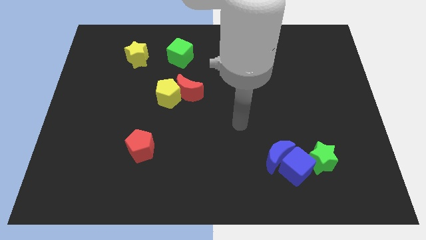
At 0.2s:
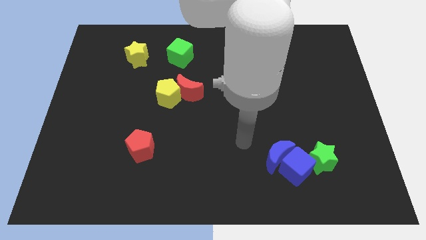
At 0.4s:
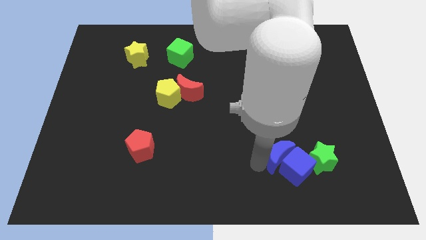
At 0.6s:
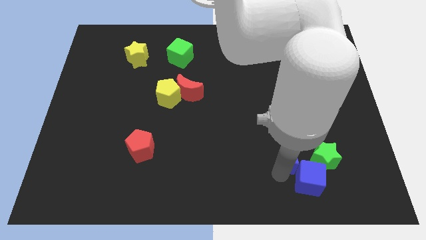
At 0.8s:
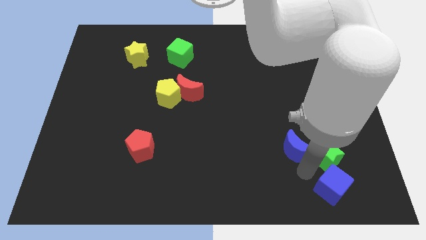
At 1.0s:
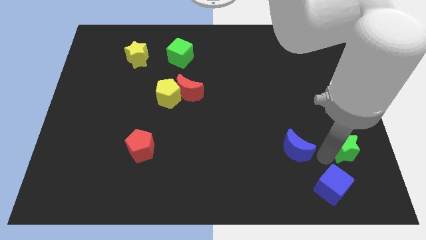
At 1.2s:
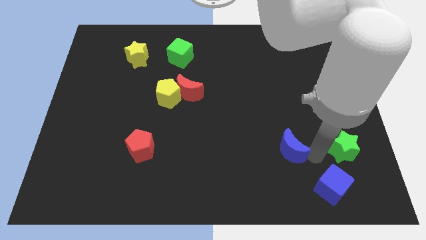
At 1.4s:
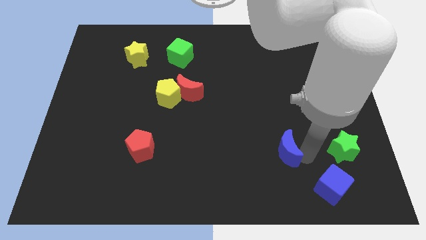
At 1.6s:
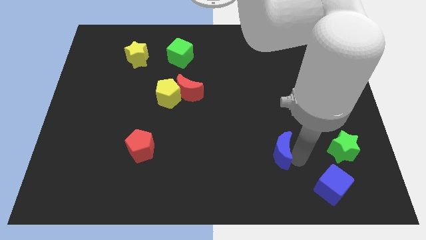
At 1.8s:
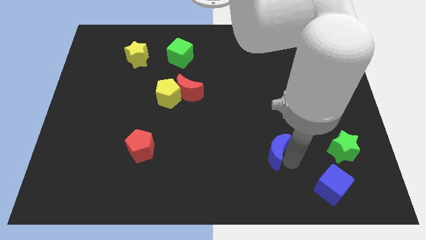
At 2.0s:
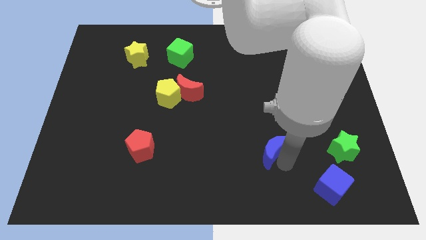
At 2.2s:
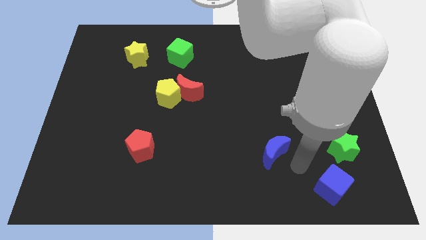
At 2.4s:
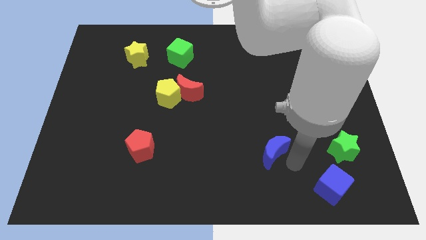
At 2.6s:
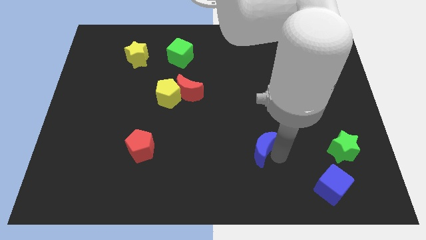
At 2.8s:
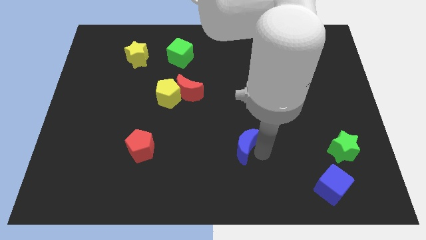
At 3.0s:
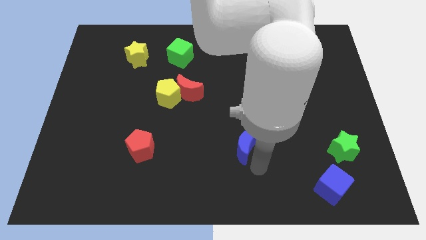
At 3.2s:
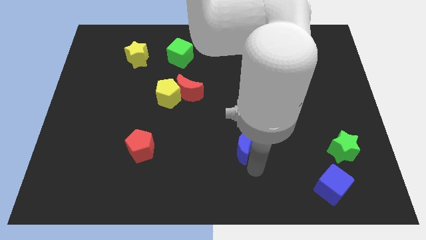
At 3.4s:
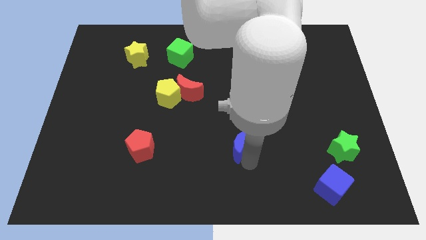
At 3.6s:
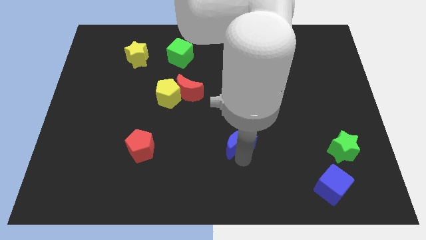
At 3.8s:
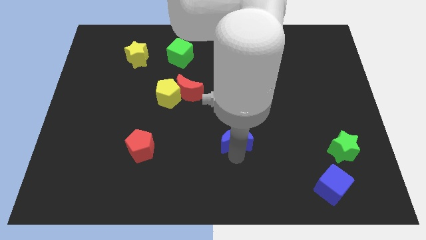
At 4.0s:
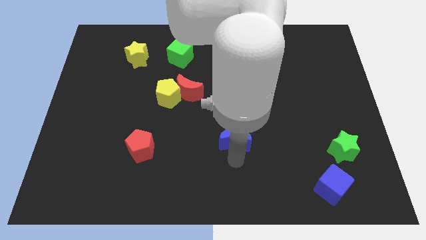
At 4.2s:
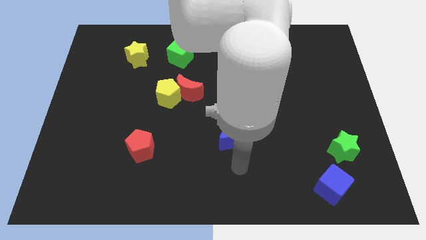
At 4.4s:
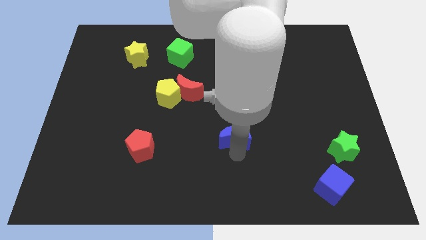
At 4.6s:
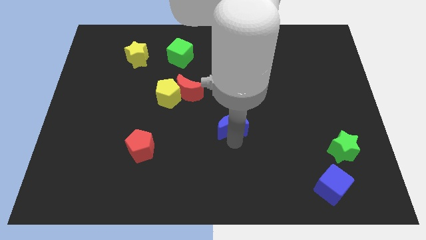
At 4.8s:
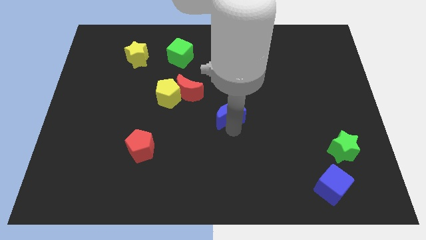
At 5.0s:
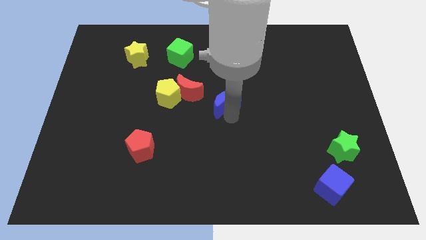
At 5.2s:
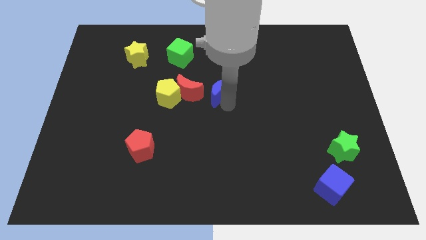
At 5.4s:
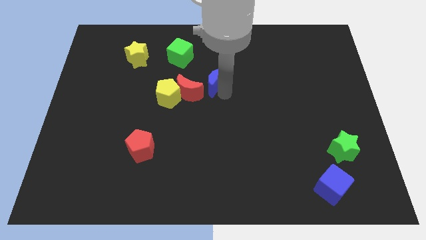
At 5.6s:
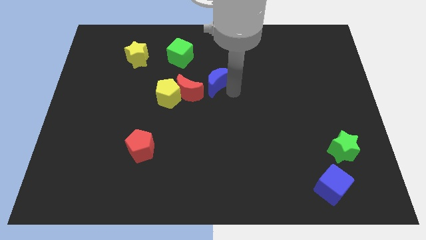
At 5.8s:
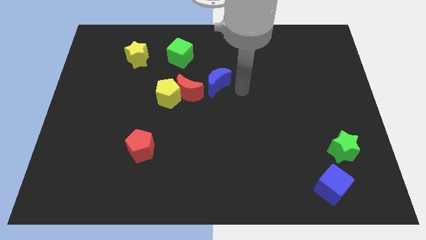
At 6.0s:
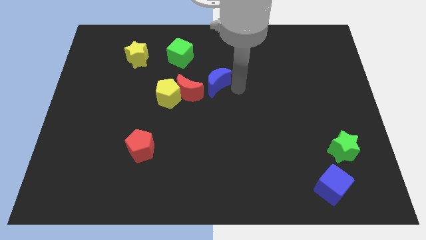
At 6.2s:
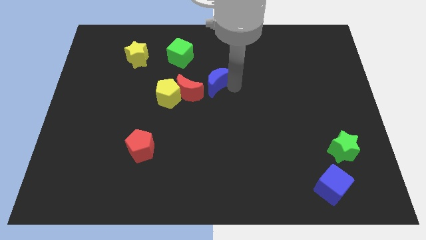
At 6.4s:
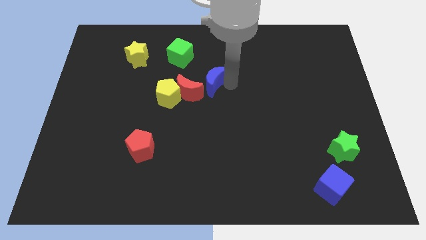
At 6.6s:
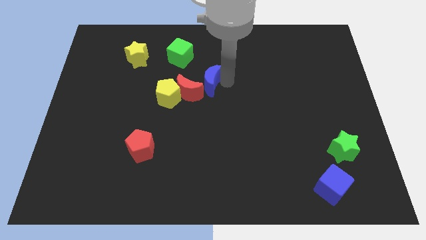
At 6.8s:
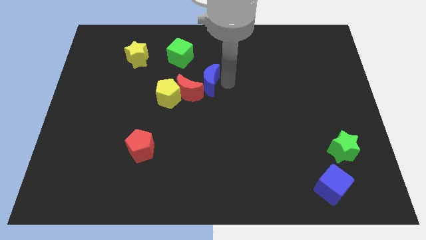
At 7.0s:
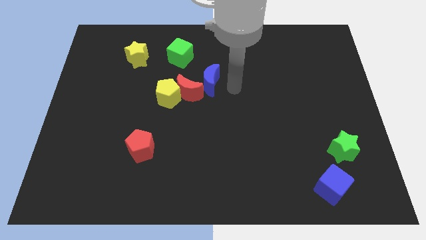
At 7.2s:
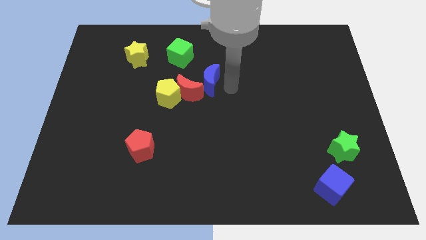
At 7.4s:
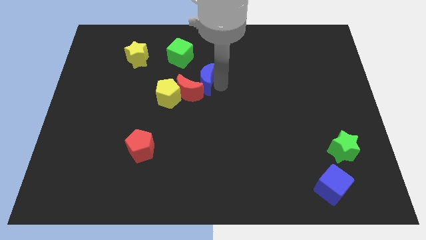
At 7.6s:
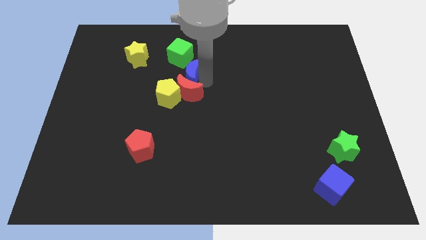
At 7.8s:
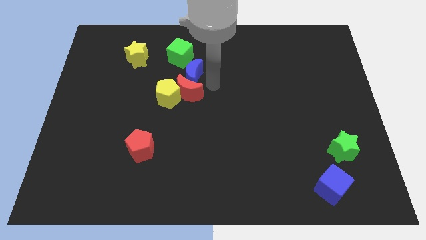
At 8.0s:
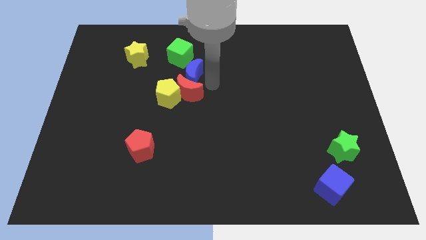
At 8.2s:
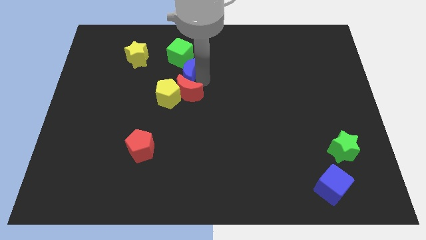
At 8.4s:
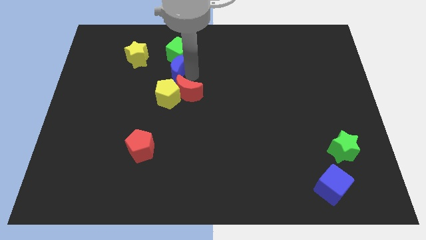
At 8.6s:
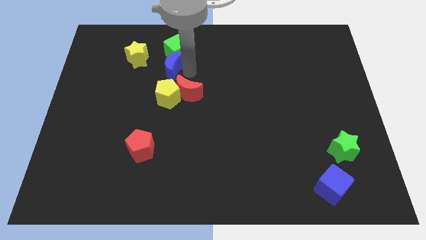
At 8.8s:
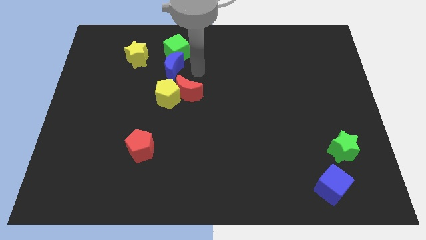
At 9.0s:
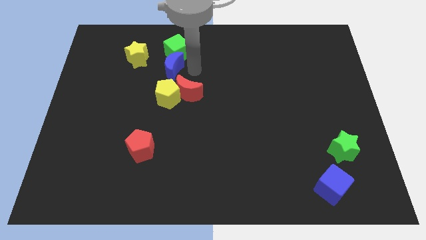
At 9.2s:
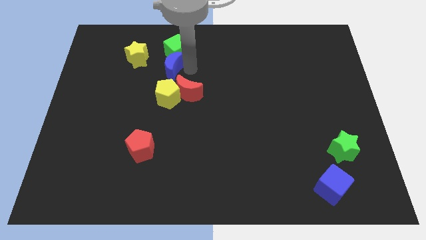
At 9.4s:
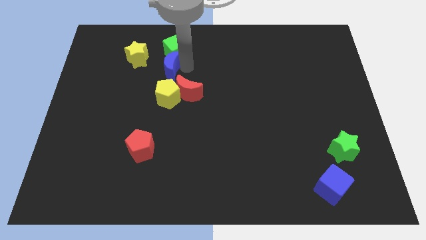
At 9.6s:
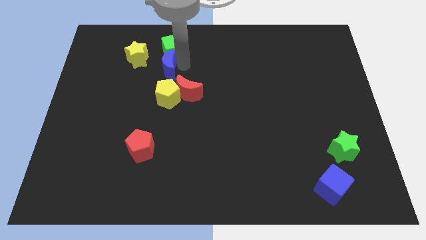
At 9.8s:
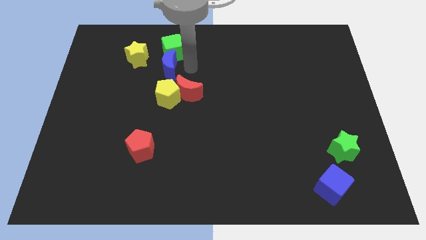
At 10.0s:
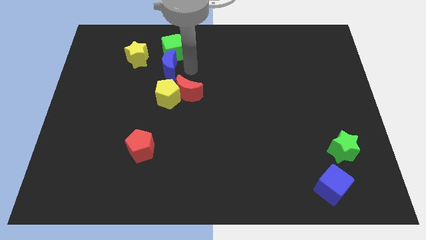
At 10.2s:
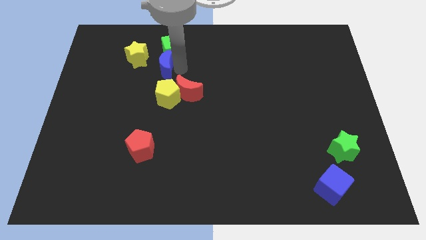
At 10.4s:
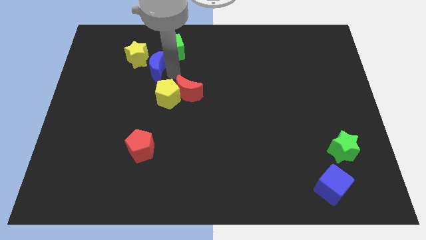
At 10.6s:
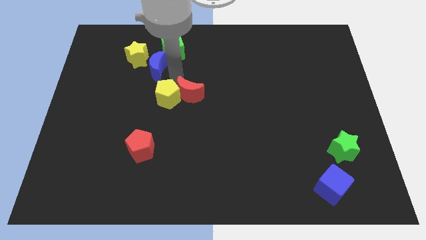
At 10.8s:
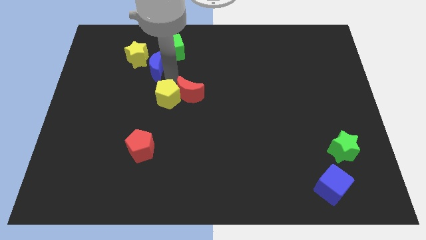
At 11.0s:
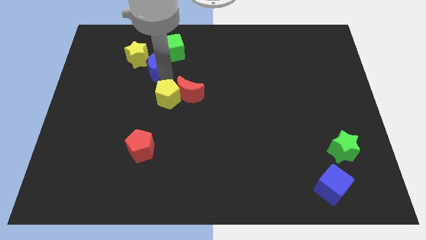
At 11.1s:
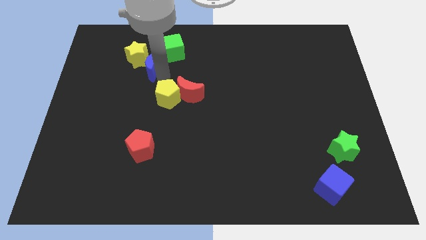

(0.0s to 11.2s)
push the blue moon to the yellow star

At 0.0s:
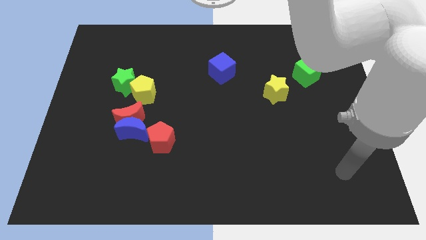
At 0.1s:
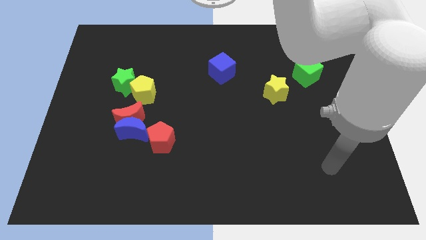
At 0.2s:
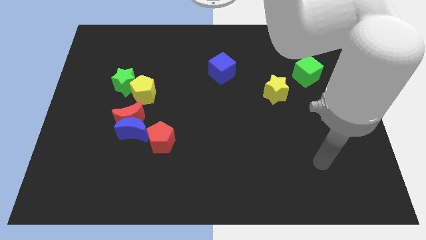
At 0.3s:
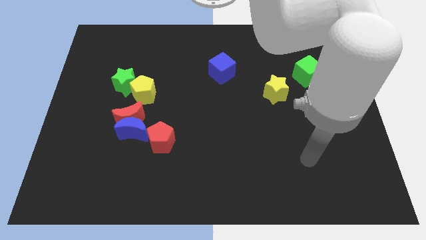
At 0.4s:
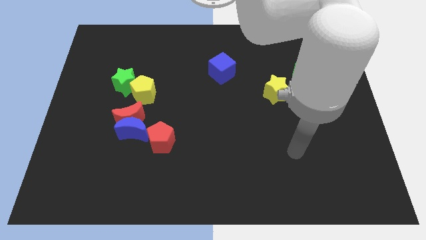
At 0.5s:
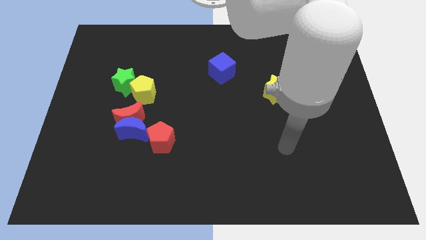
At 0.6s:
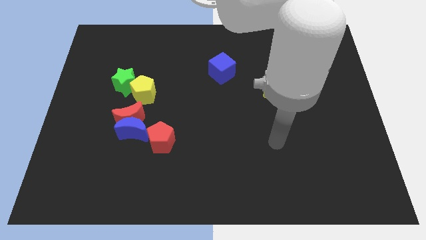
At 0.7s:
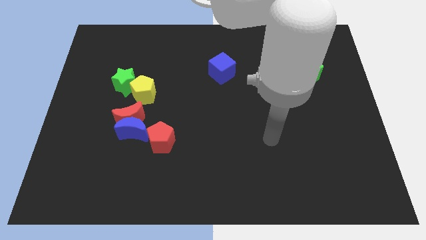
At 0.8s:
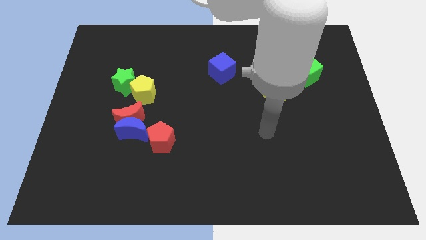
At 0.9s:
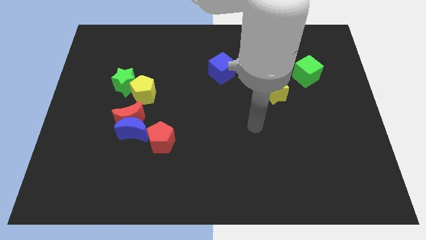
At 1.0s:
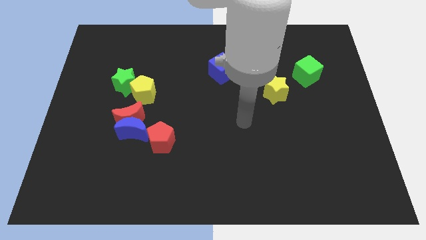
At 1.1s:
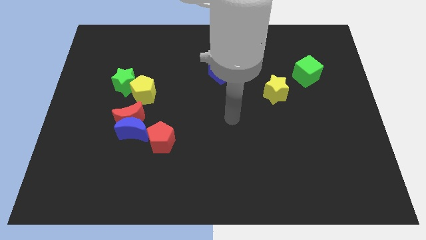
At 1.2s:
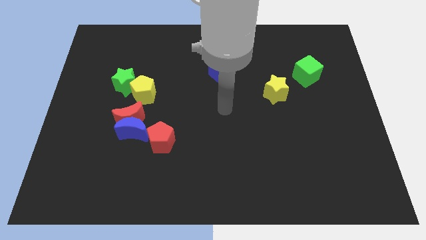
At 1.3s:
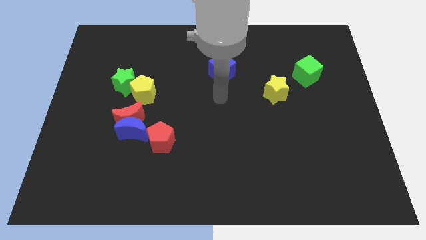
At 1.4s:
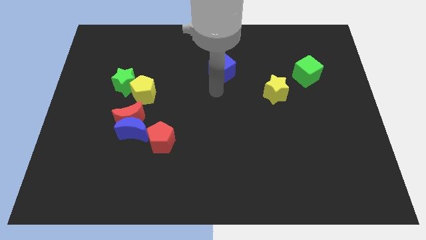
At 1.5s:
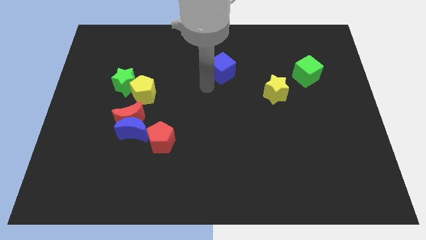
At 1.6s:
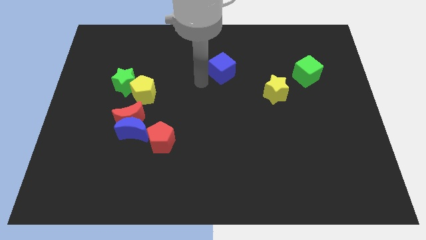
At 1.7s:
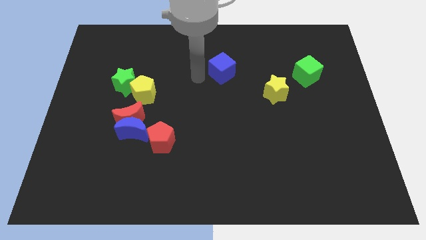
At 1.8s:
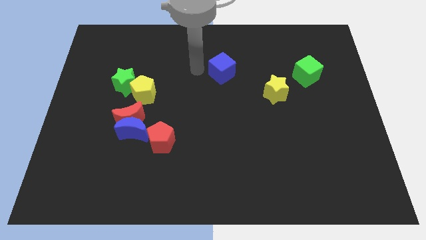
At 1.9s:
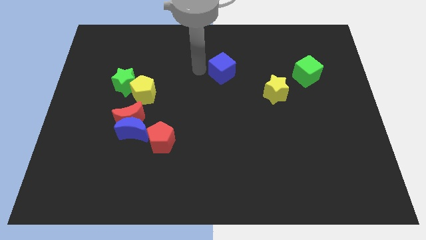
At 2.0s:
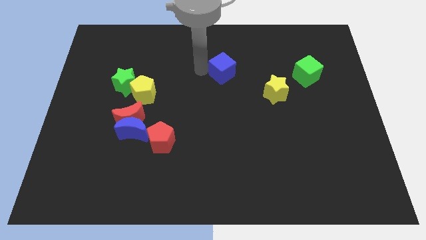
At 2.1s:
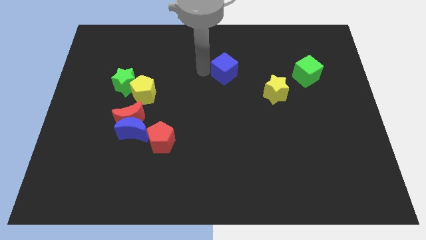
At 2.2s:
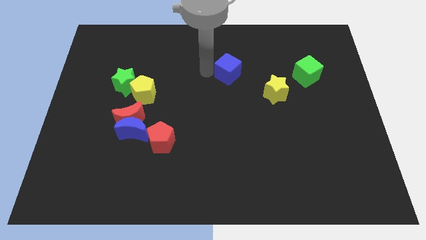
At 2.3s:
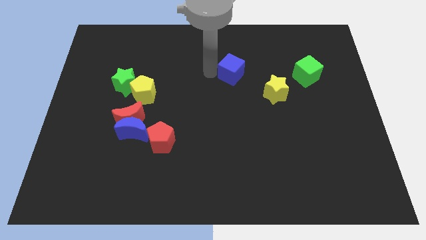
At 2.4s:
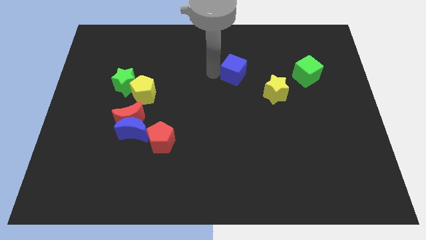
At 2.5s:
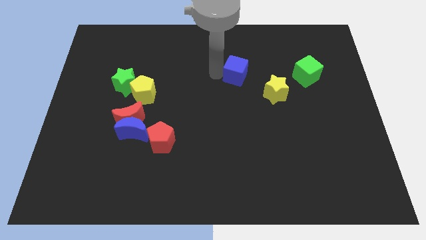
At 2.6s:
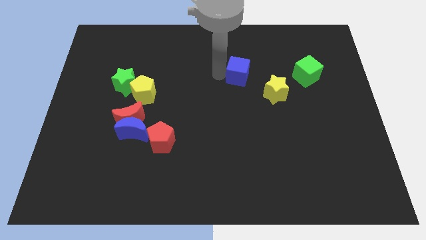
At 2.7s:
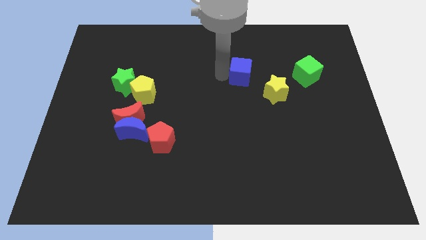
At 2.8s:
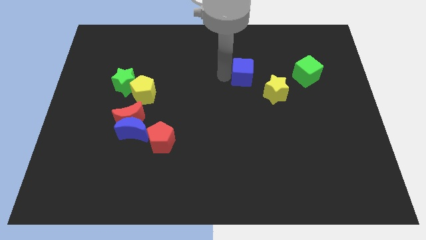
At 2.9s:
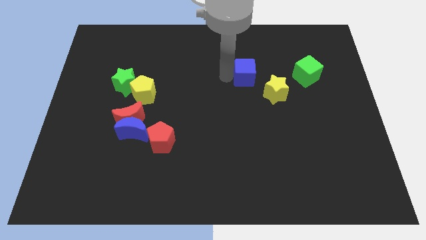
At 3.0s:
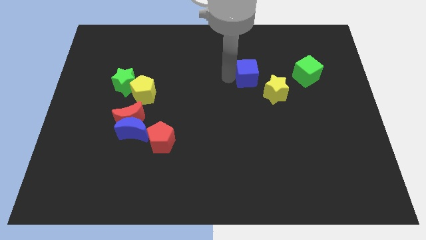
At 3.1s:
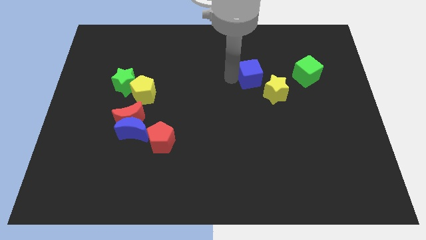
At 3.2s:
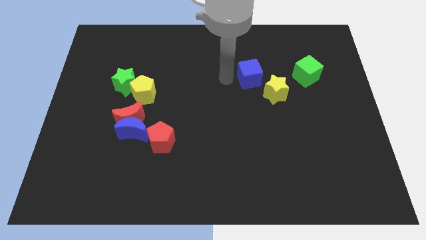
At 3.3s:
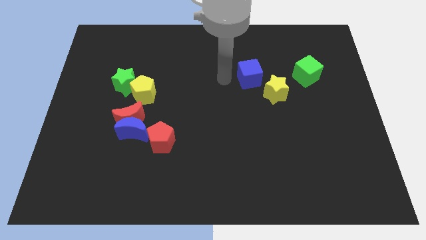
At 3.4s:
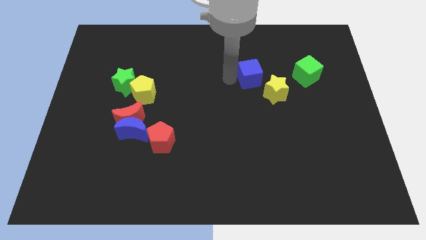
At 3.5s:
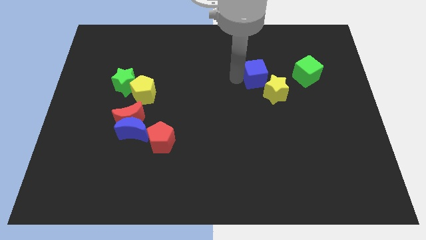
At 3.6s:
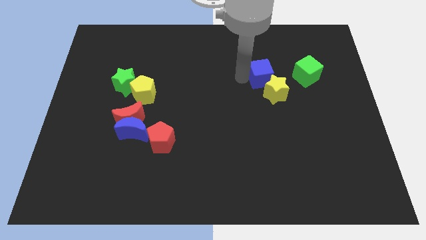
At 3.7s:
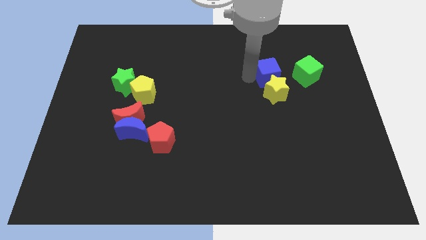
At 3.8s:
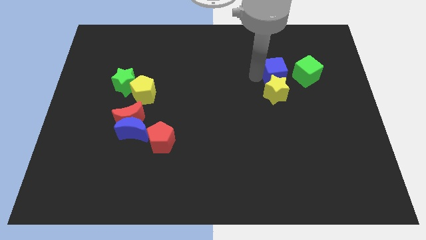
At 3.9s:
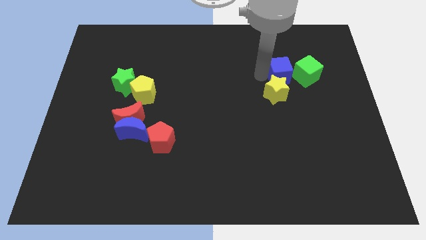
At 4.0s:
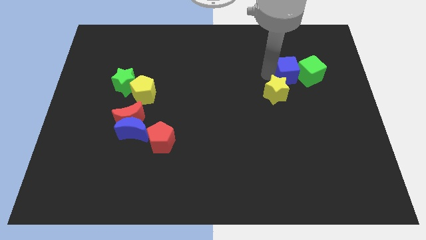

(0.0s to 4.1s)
slide the blue cube next to the green cube
